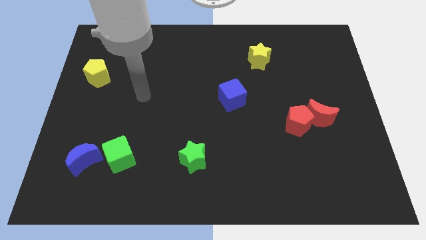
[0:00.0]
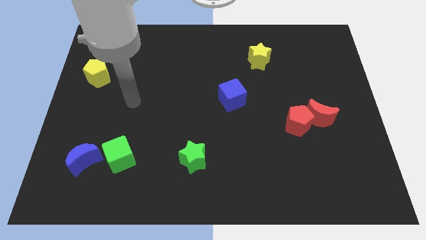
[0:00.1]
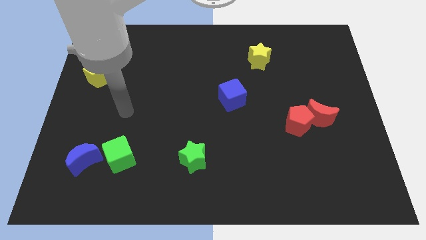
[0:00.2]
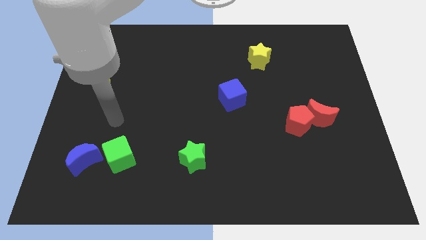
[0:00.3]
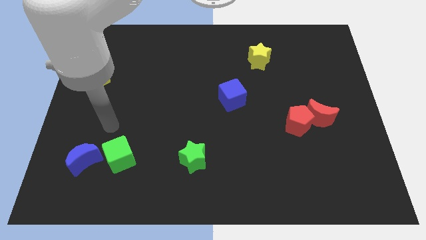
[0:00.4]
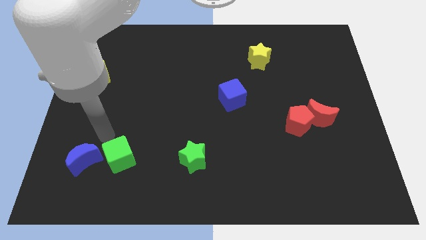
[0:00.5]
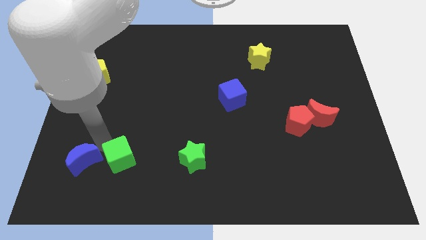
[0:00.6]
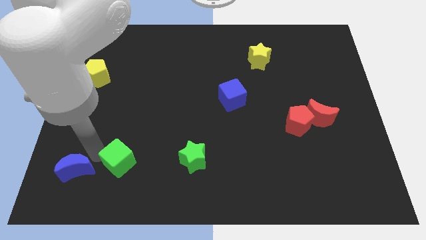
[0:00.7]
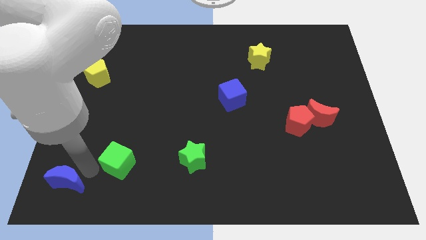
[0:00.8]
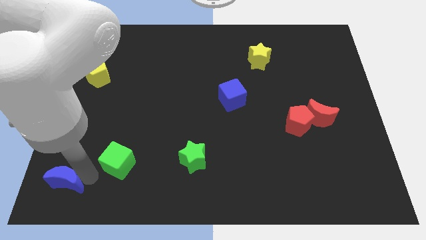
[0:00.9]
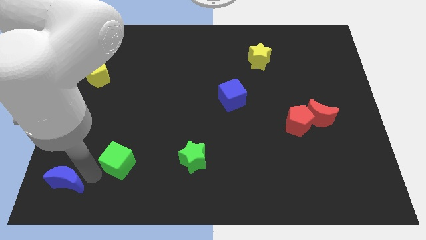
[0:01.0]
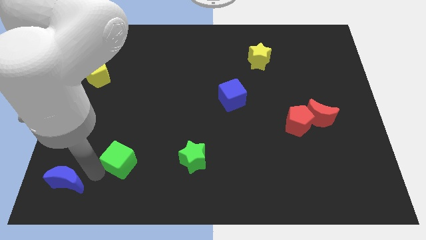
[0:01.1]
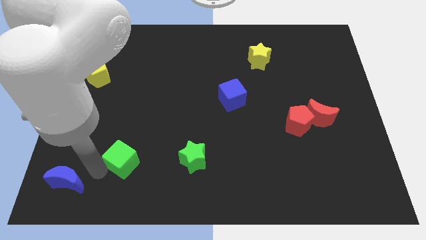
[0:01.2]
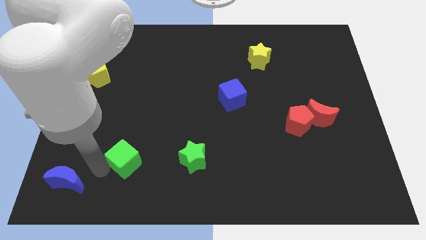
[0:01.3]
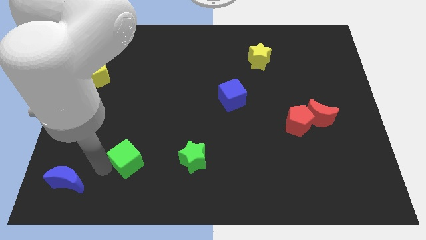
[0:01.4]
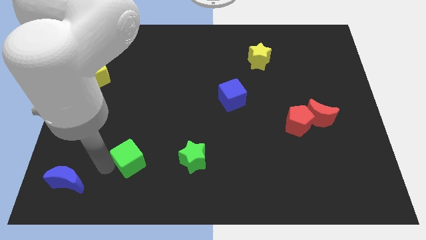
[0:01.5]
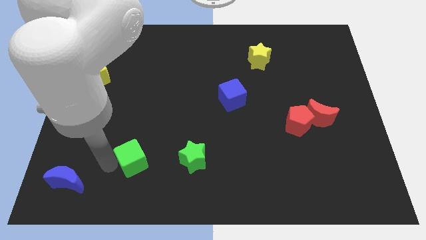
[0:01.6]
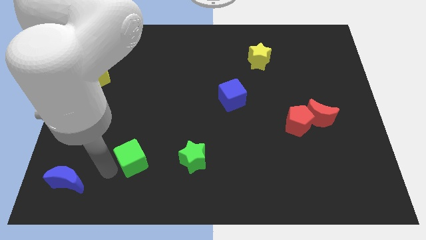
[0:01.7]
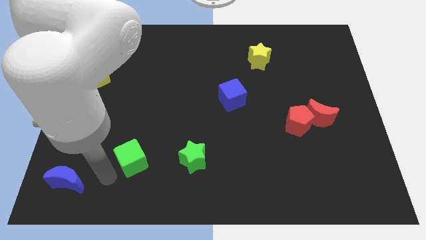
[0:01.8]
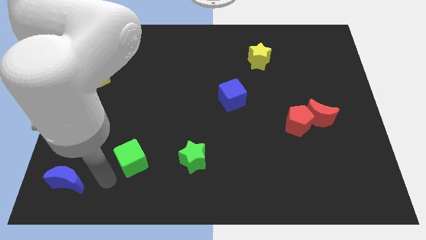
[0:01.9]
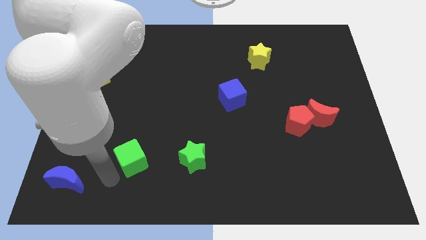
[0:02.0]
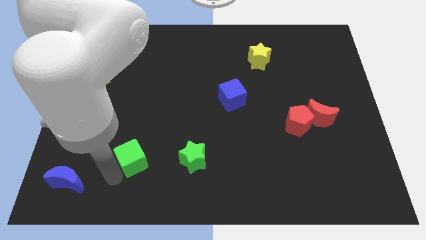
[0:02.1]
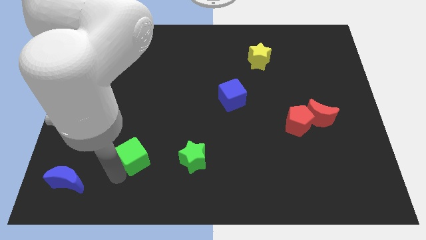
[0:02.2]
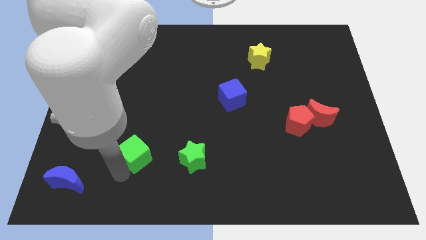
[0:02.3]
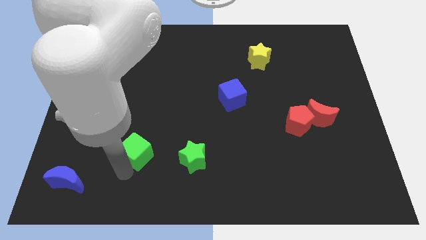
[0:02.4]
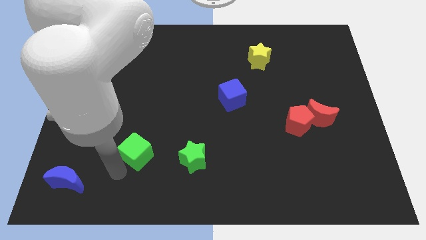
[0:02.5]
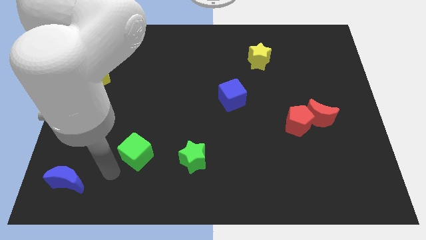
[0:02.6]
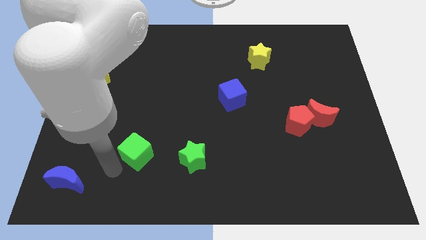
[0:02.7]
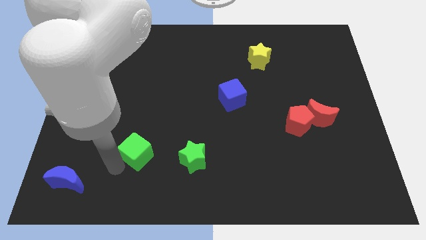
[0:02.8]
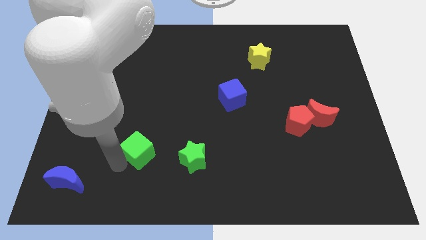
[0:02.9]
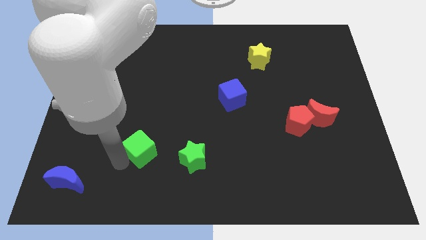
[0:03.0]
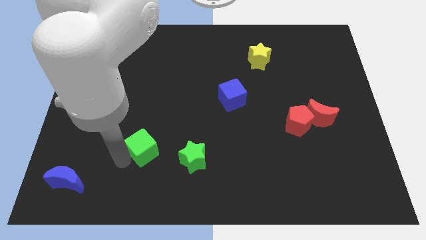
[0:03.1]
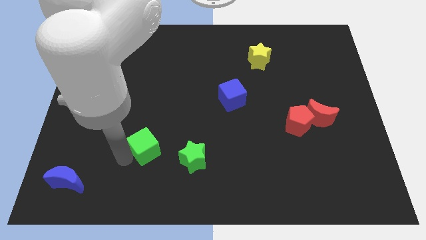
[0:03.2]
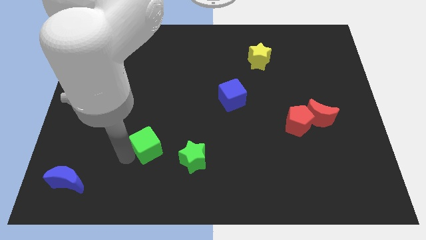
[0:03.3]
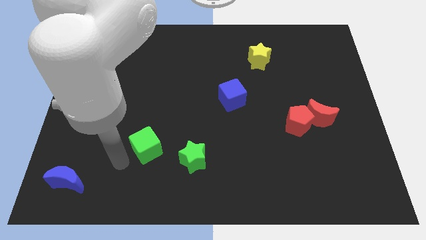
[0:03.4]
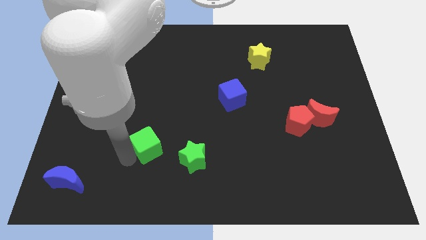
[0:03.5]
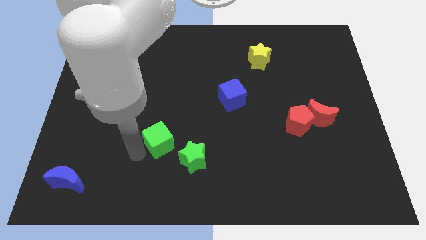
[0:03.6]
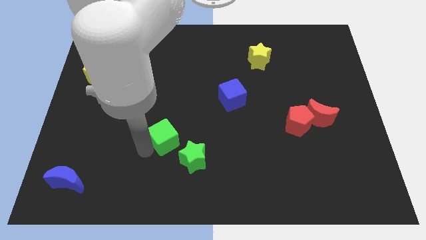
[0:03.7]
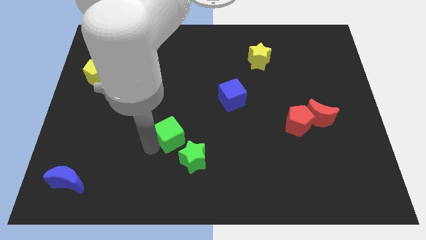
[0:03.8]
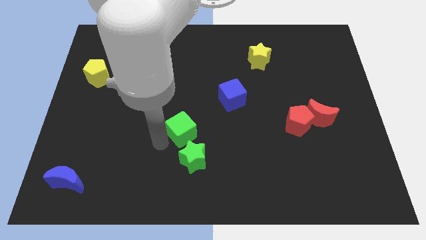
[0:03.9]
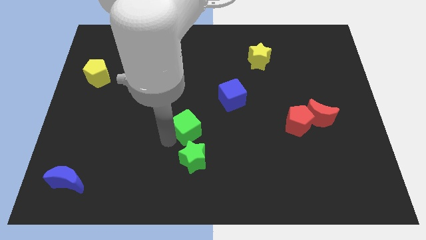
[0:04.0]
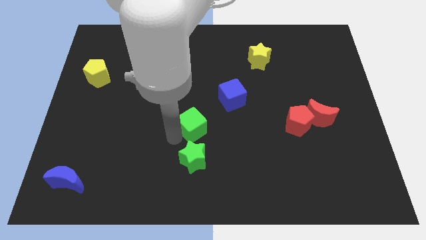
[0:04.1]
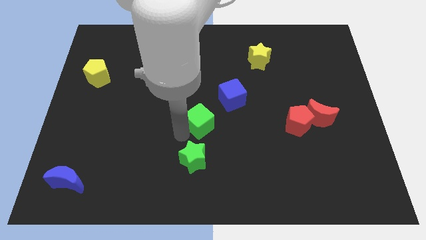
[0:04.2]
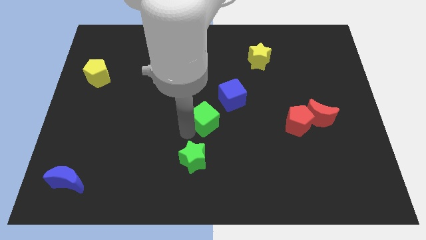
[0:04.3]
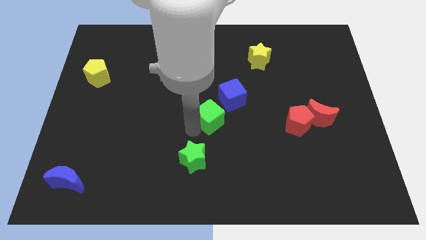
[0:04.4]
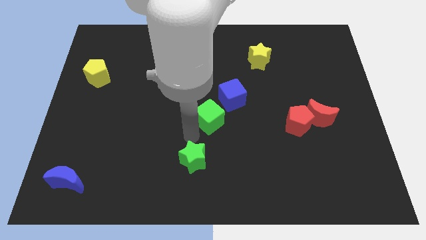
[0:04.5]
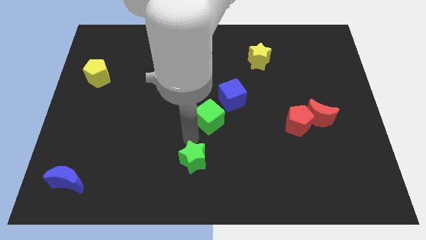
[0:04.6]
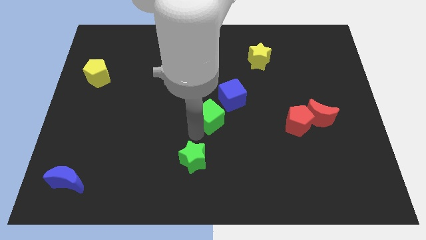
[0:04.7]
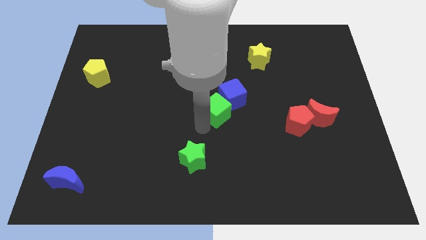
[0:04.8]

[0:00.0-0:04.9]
slide the green cube close to the blue cube

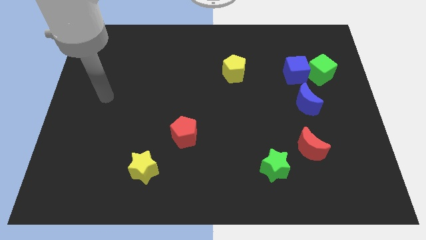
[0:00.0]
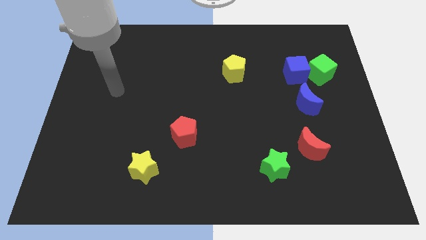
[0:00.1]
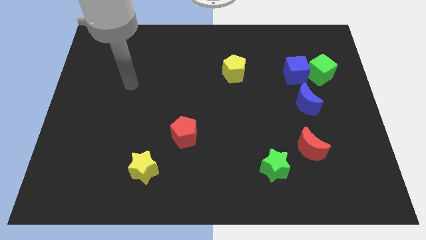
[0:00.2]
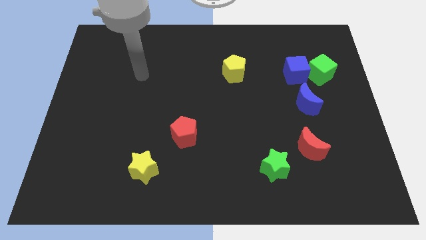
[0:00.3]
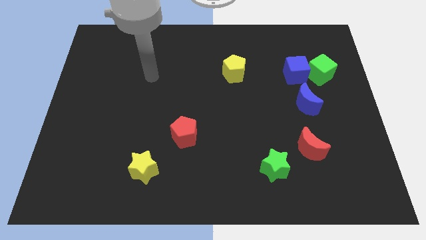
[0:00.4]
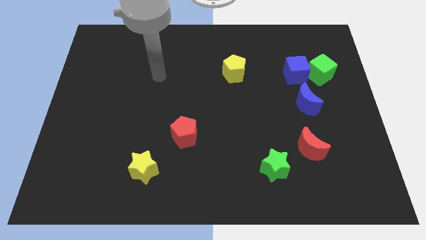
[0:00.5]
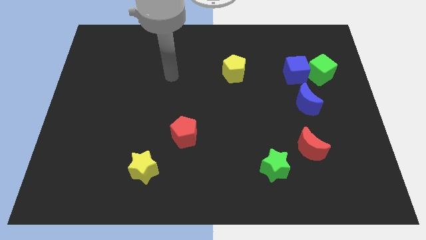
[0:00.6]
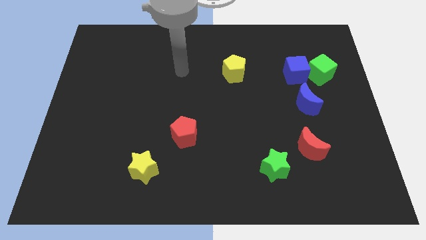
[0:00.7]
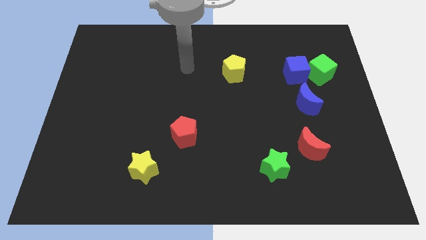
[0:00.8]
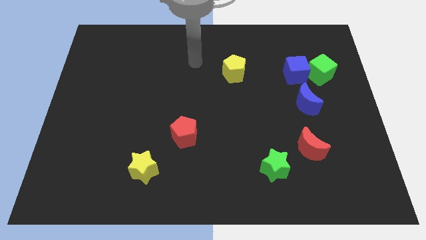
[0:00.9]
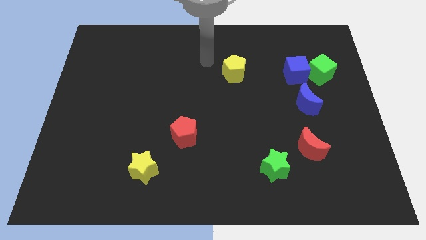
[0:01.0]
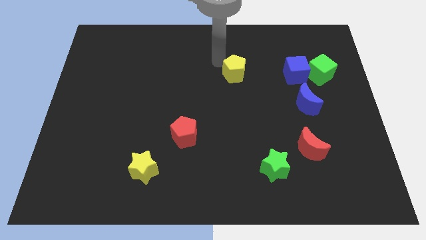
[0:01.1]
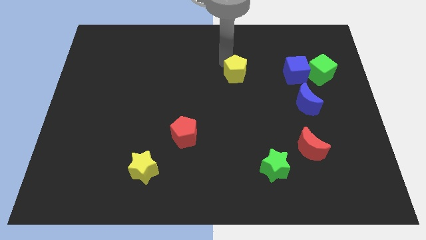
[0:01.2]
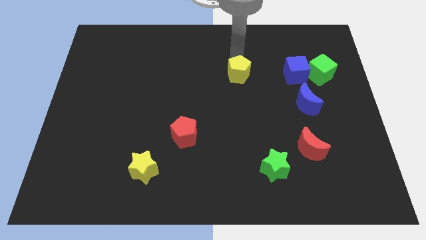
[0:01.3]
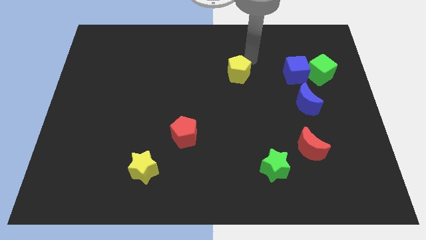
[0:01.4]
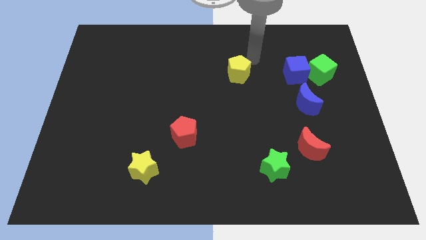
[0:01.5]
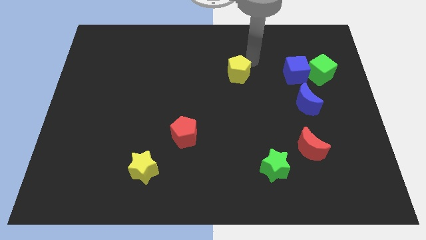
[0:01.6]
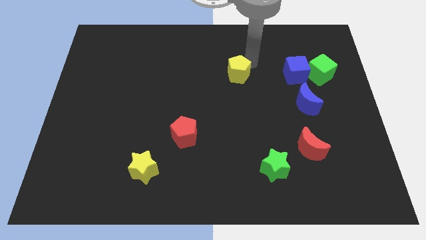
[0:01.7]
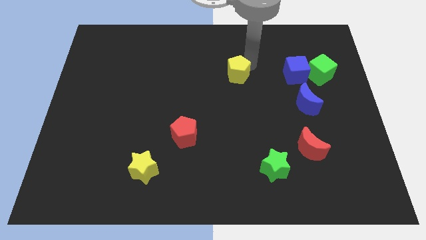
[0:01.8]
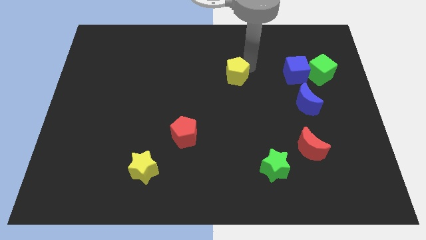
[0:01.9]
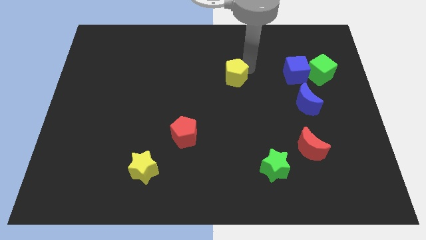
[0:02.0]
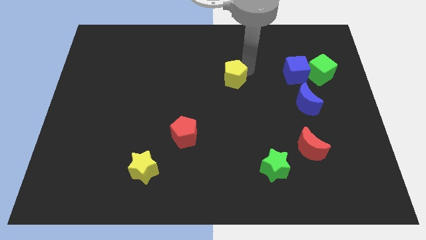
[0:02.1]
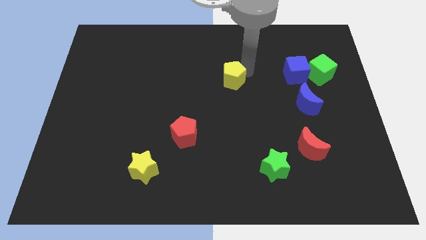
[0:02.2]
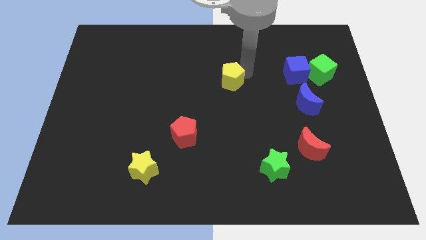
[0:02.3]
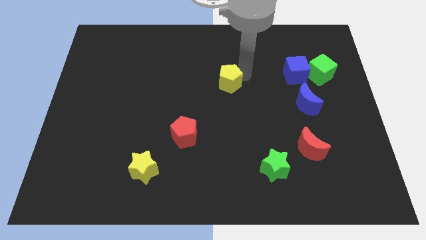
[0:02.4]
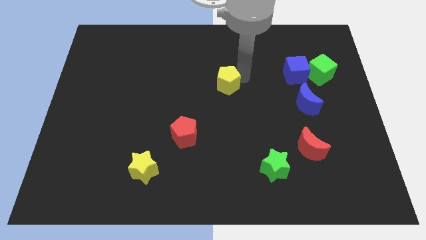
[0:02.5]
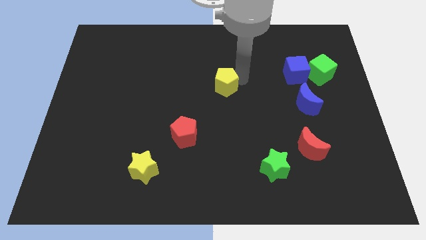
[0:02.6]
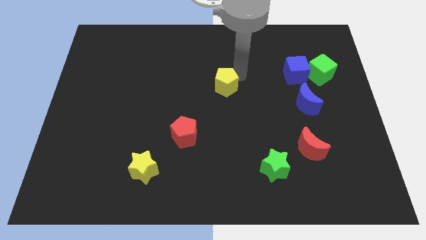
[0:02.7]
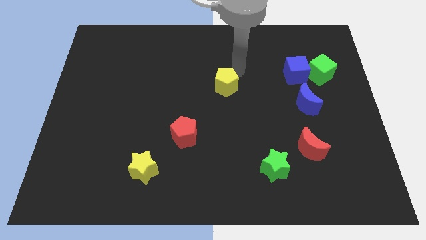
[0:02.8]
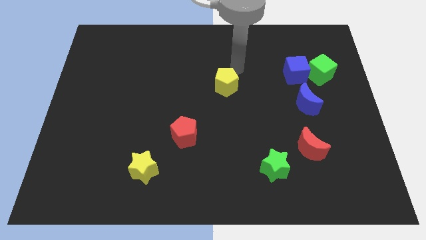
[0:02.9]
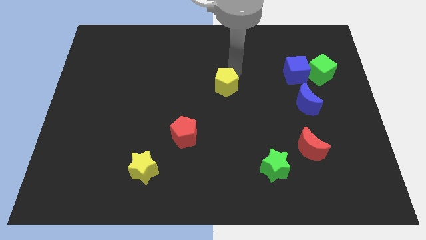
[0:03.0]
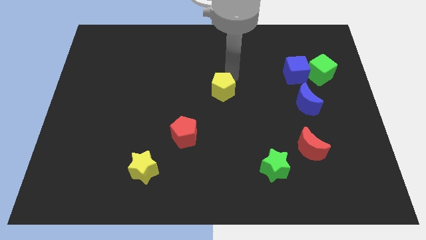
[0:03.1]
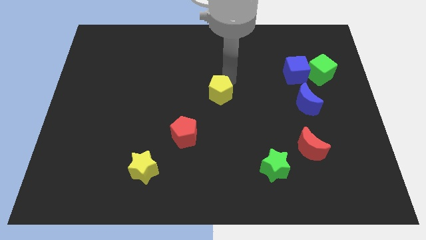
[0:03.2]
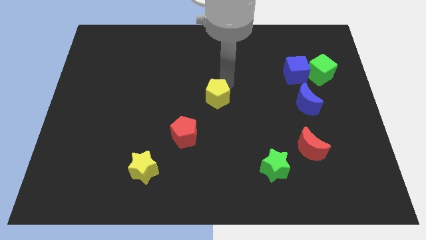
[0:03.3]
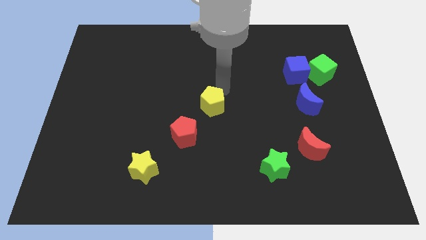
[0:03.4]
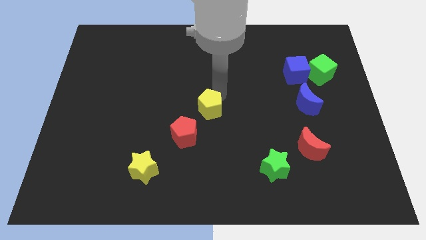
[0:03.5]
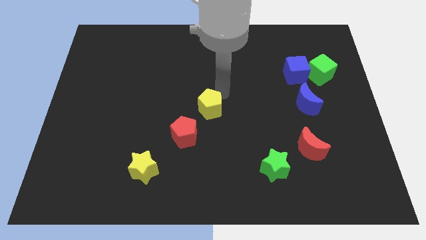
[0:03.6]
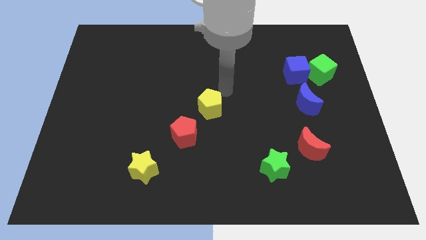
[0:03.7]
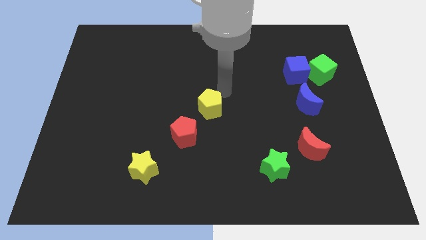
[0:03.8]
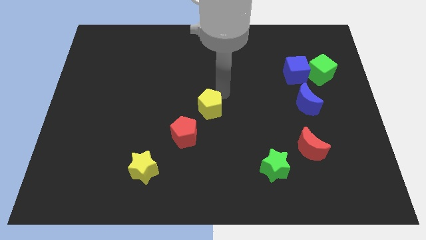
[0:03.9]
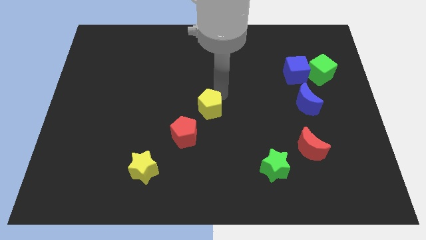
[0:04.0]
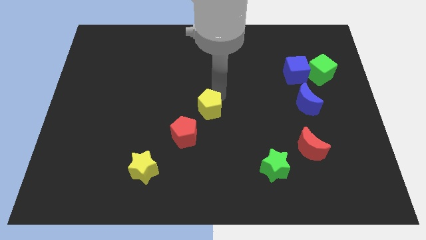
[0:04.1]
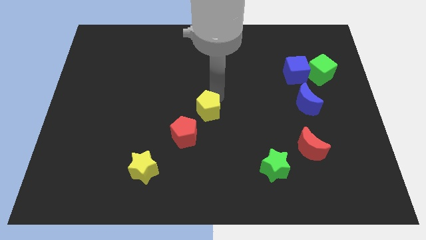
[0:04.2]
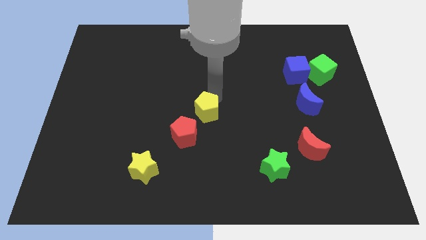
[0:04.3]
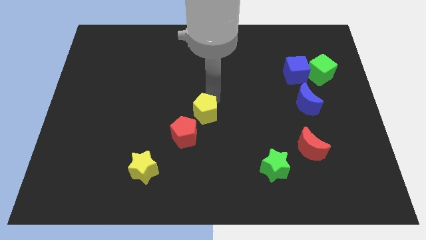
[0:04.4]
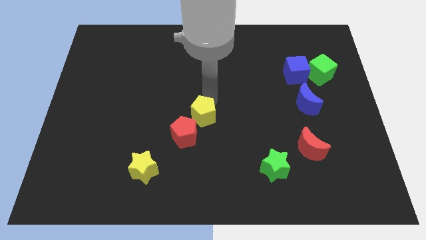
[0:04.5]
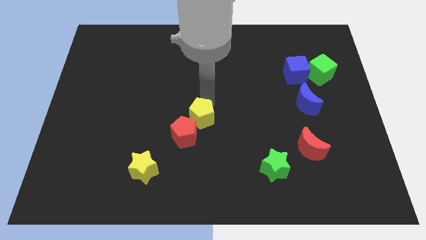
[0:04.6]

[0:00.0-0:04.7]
put the yellow pentagon next to the red pentagon
